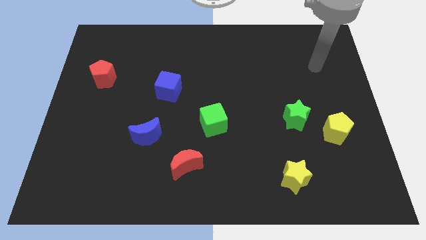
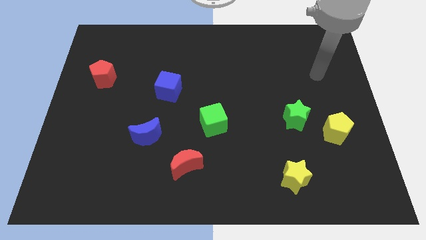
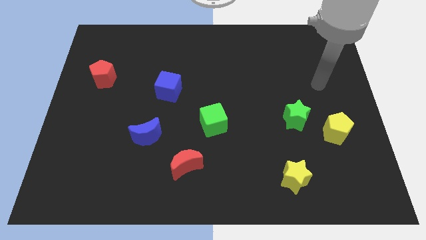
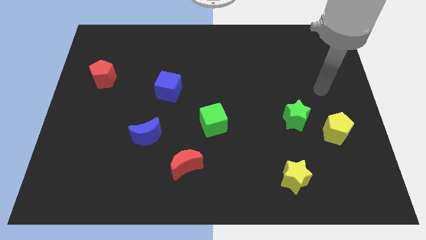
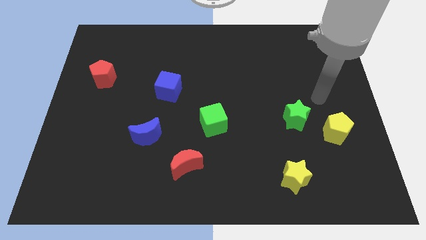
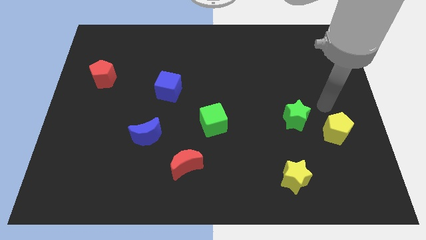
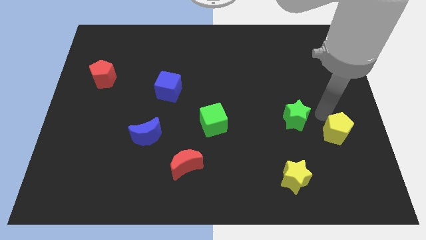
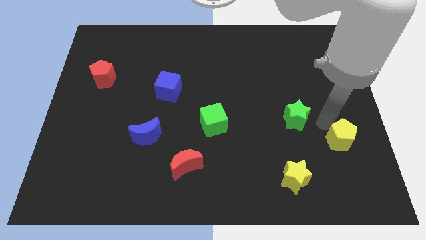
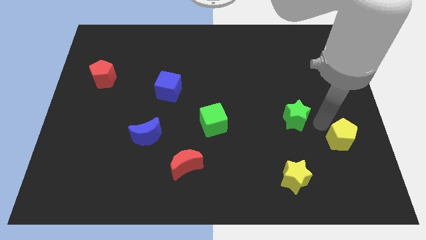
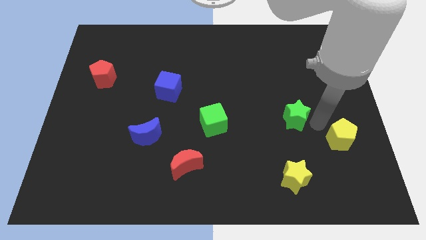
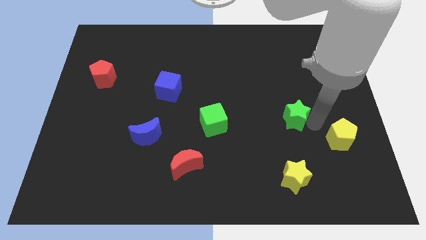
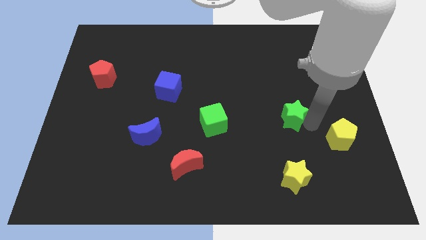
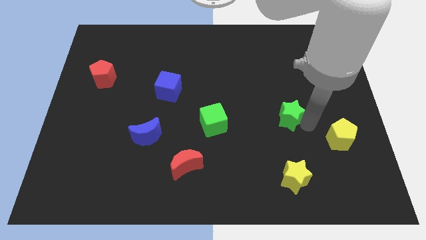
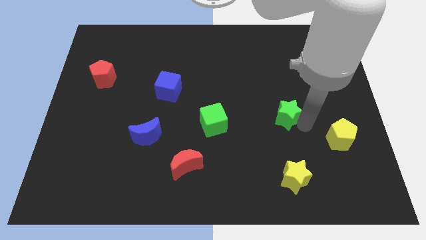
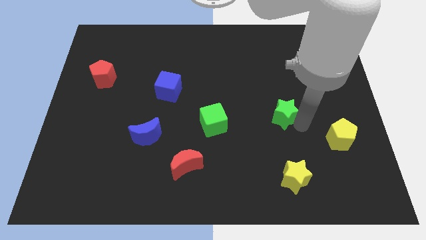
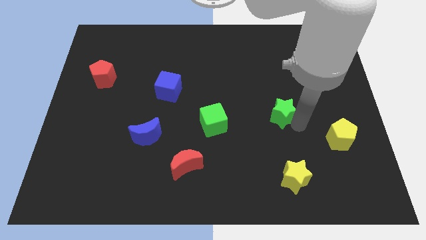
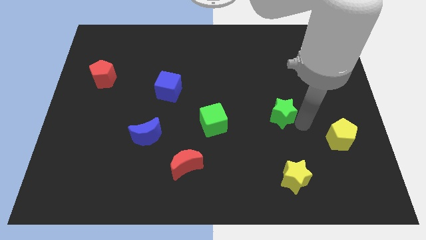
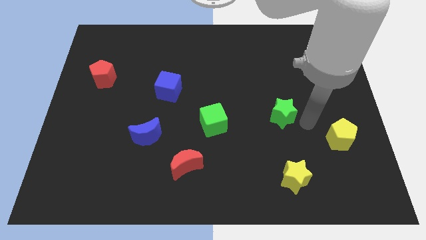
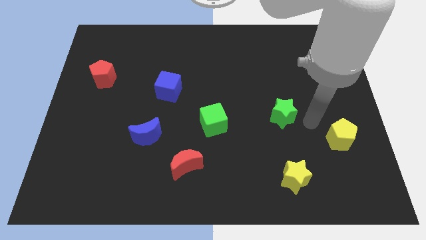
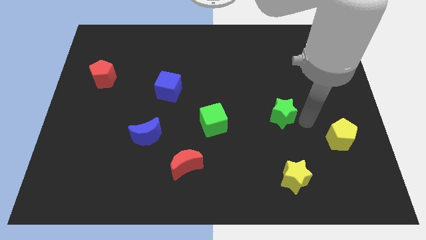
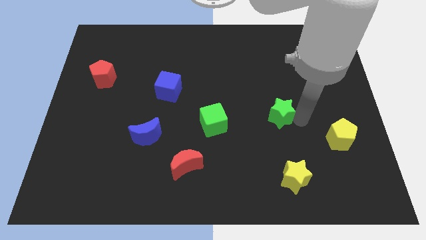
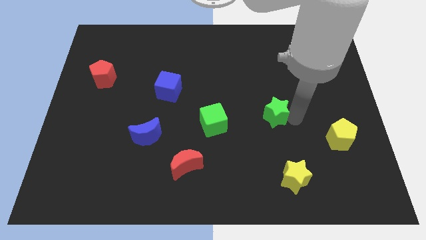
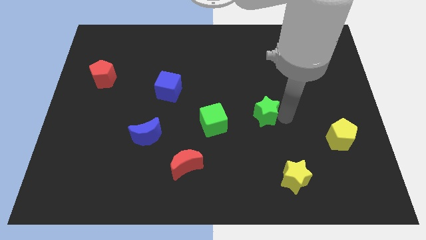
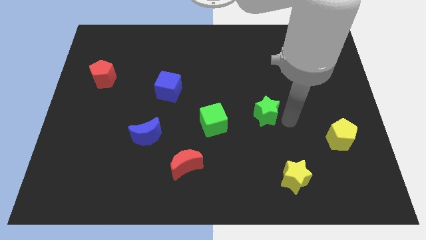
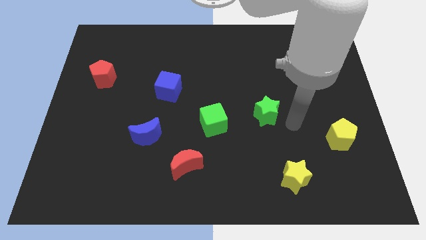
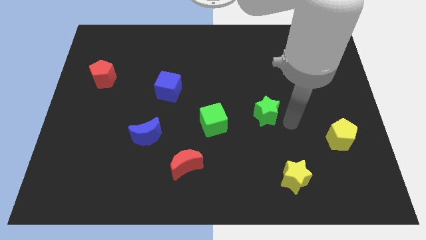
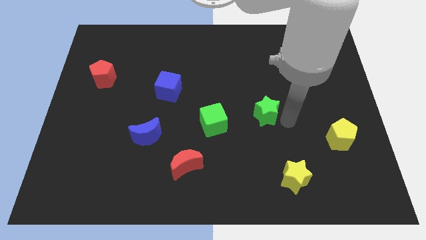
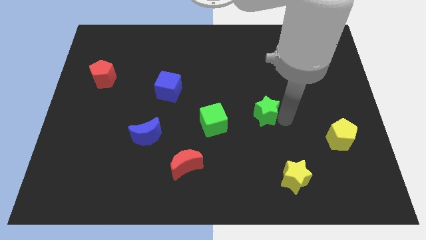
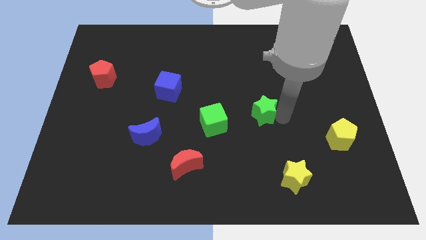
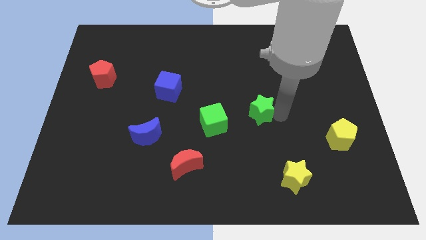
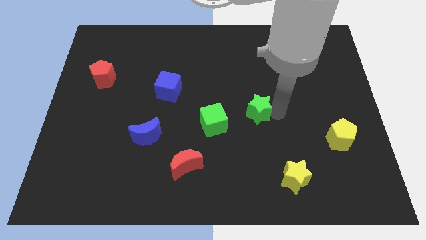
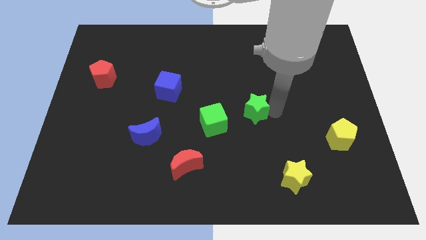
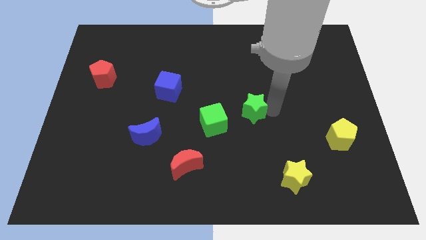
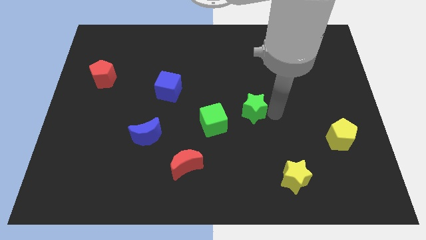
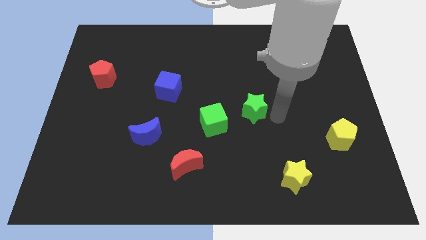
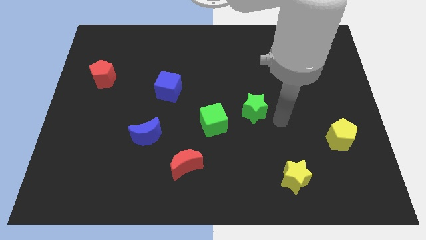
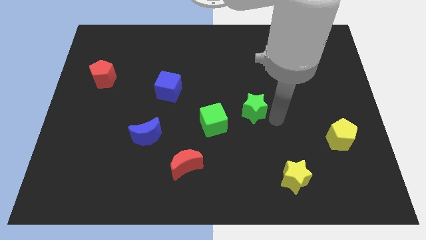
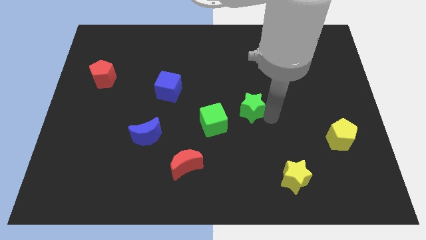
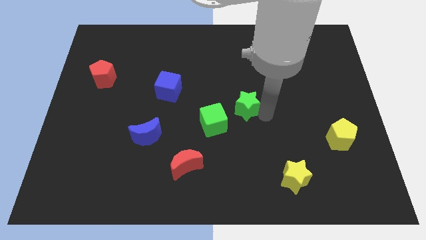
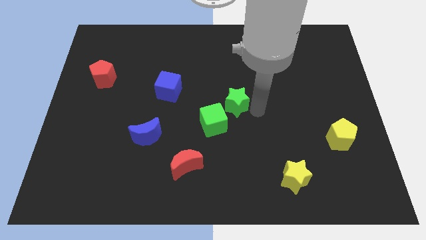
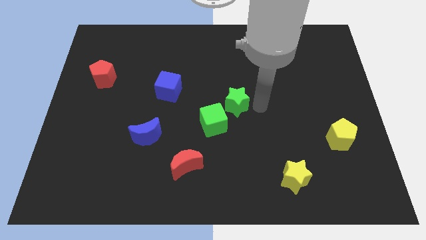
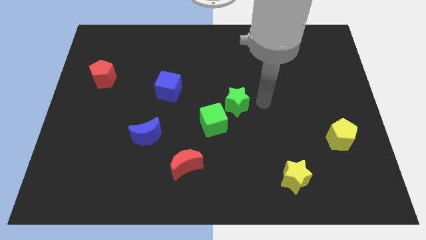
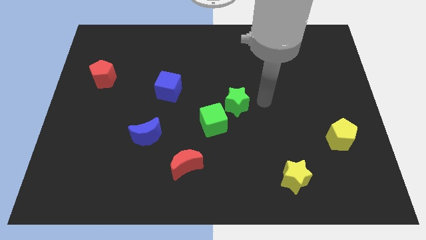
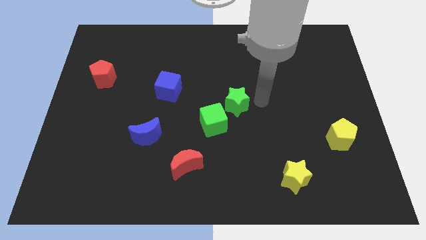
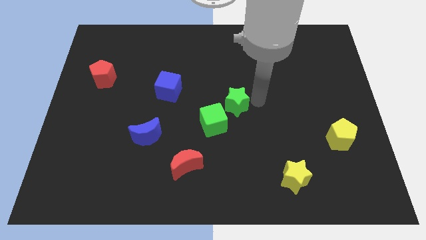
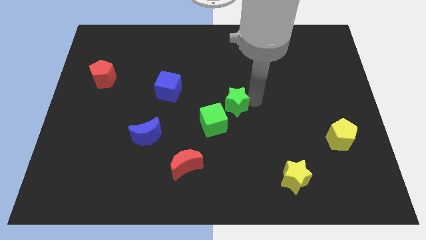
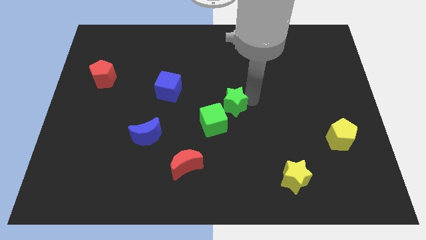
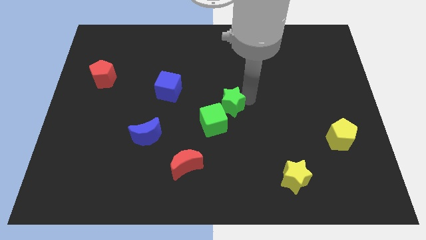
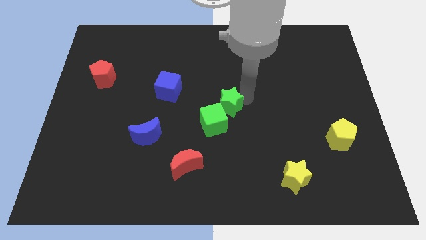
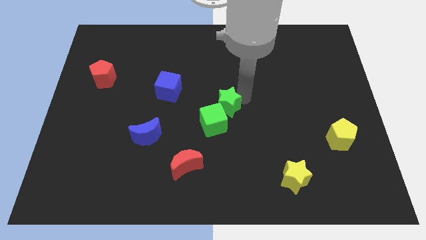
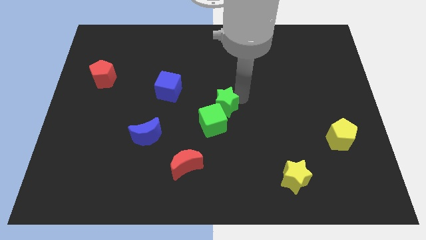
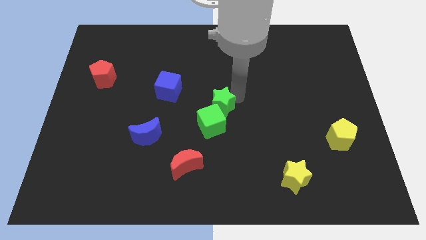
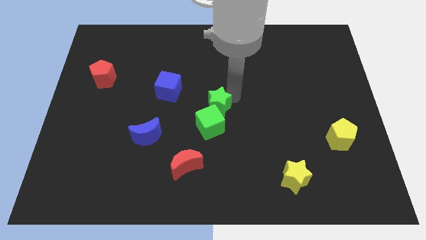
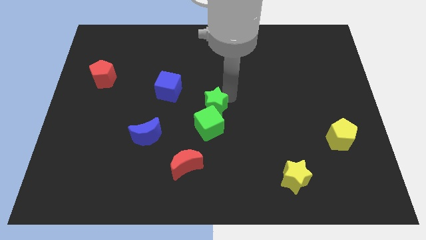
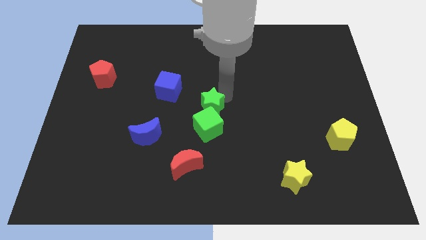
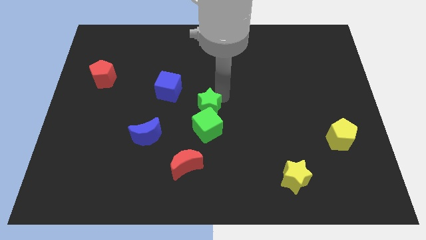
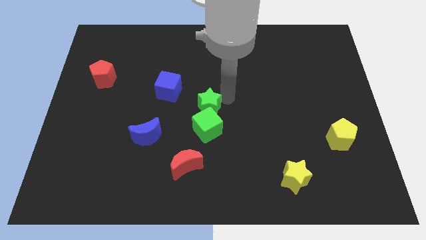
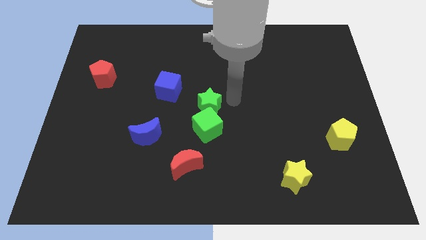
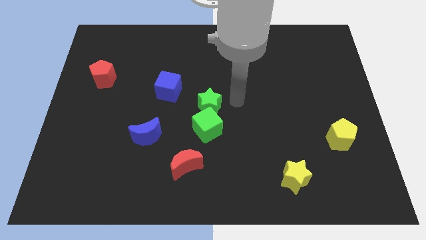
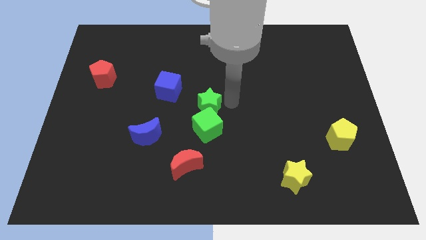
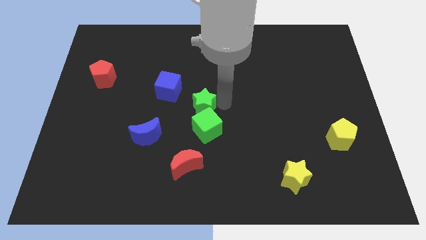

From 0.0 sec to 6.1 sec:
push the green star to the left

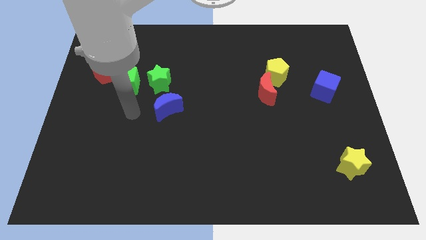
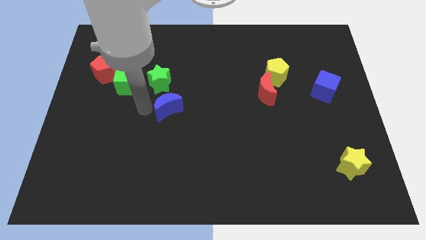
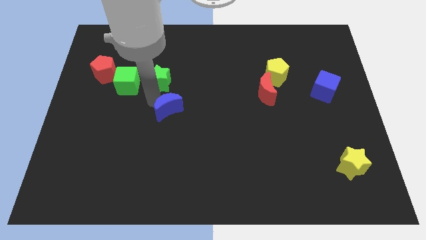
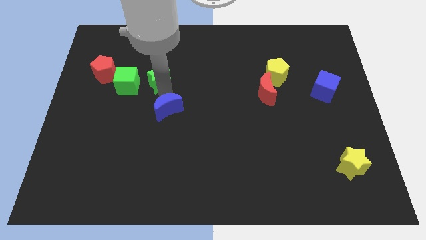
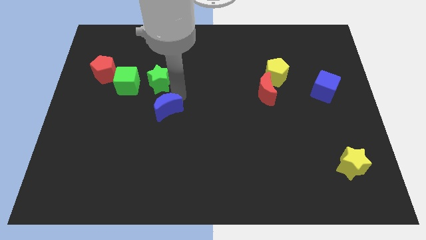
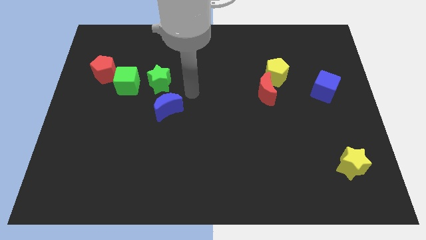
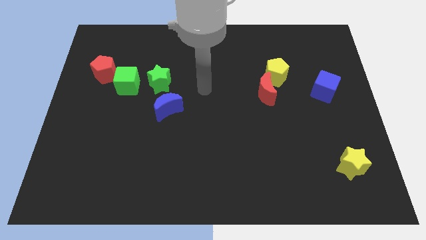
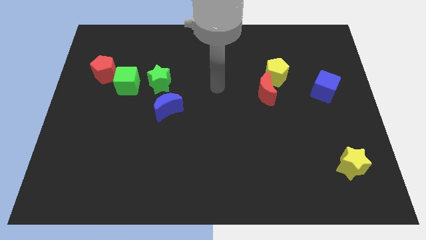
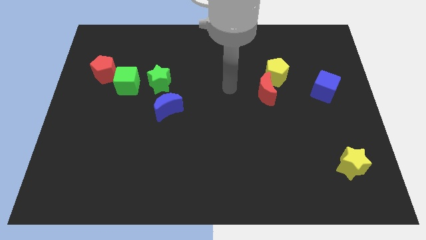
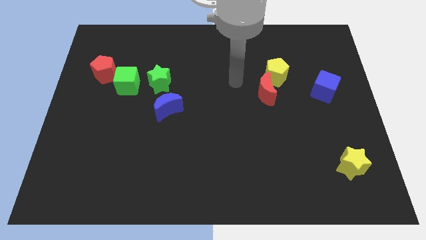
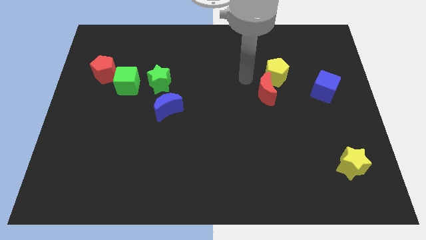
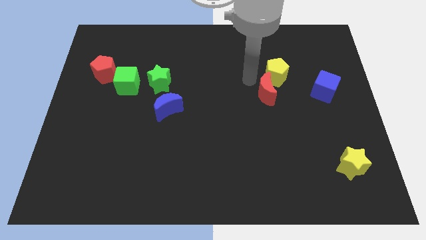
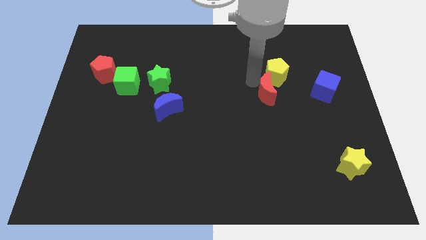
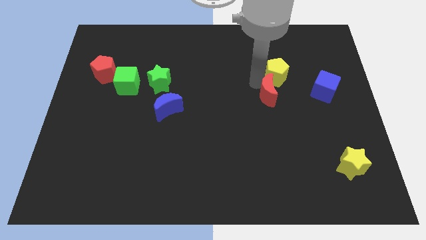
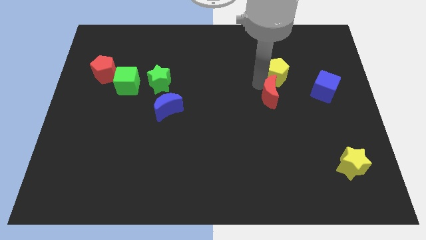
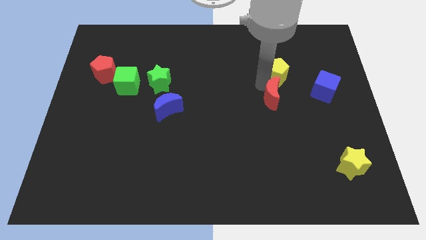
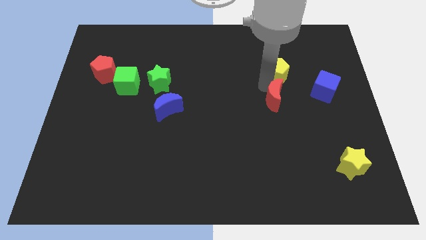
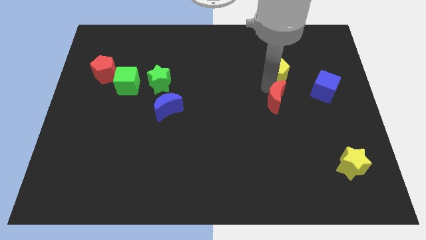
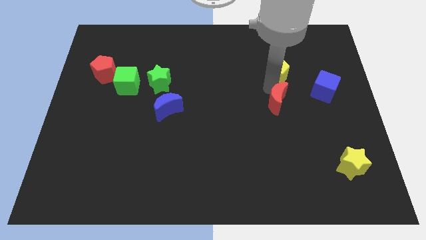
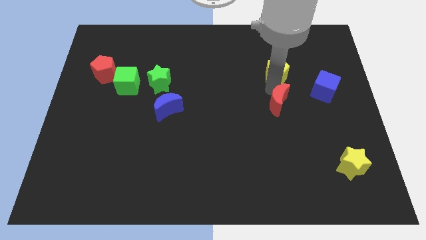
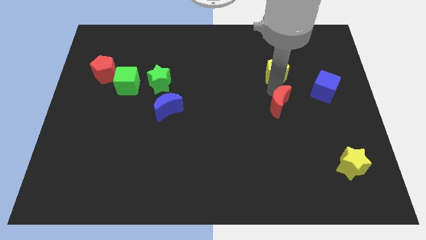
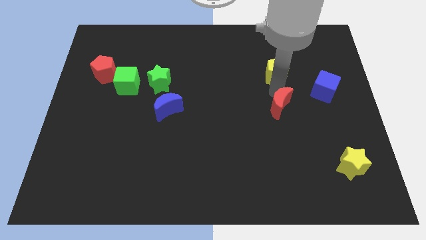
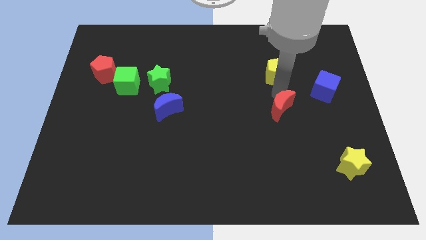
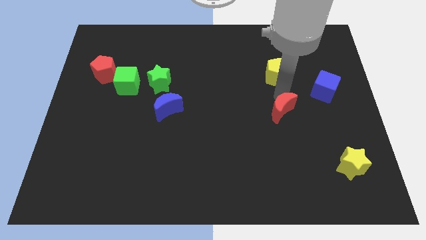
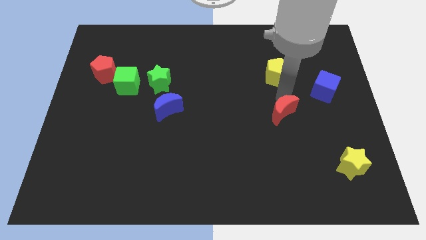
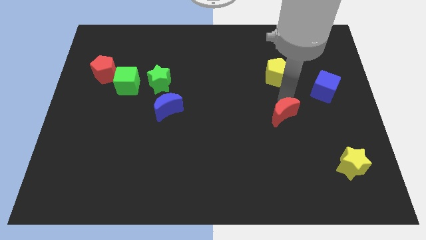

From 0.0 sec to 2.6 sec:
push the red moon a little bit down and to the right
